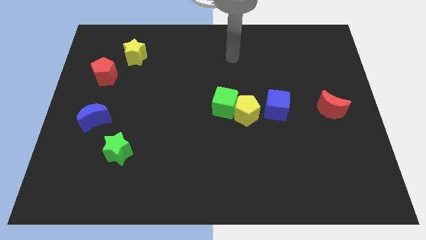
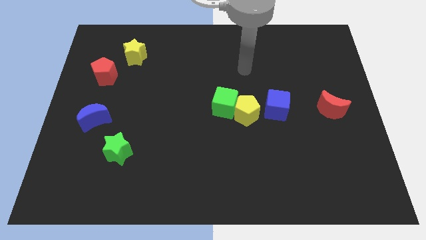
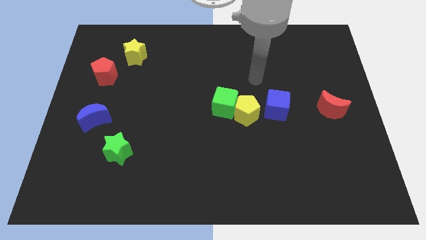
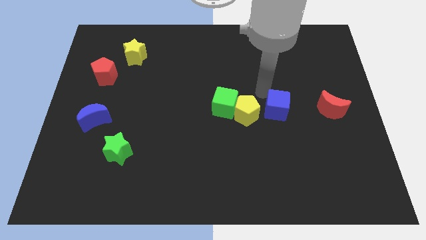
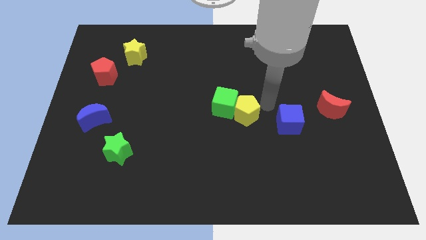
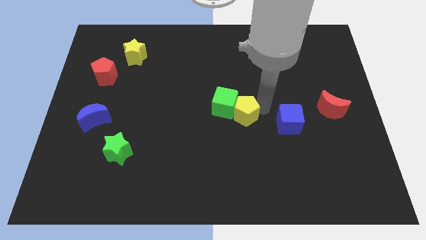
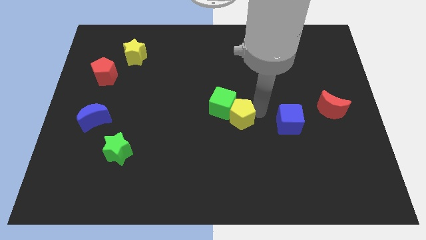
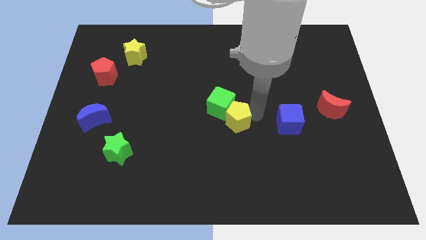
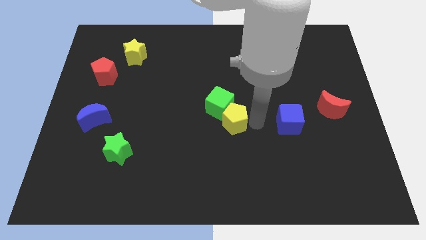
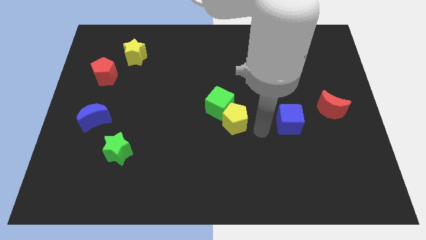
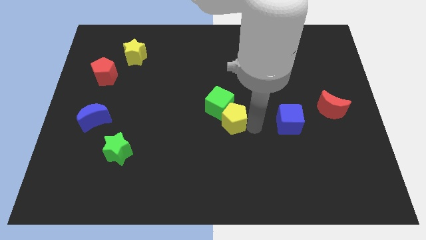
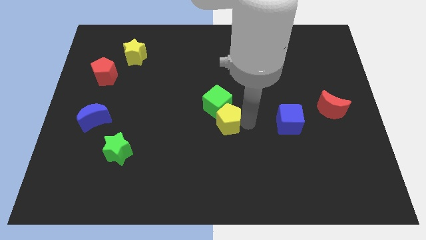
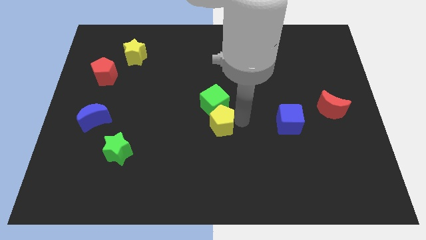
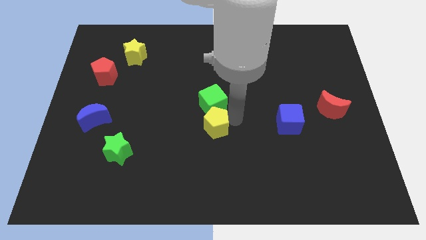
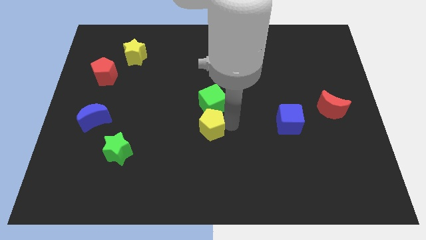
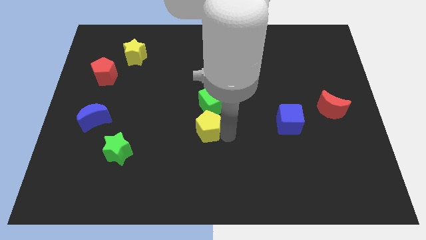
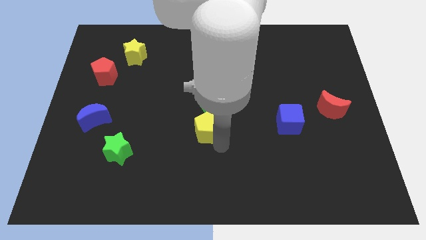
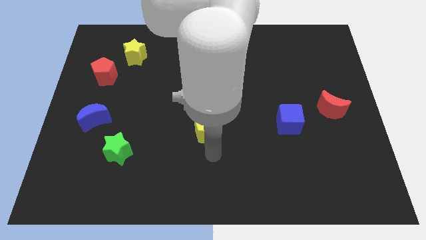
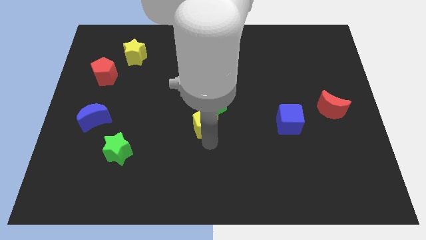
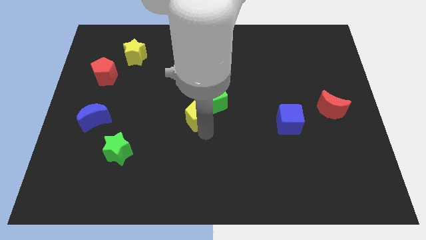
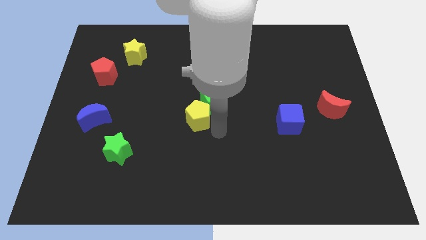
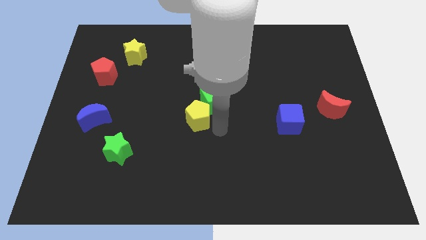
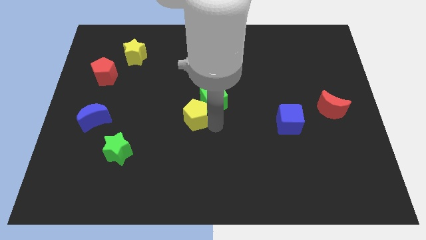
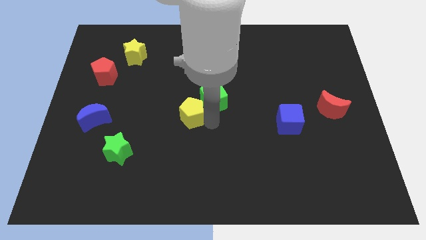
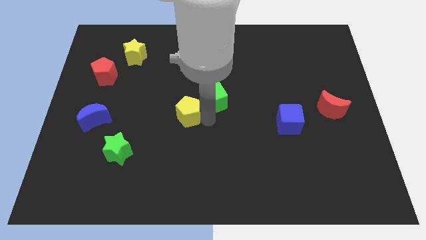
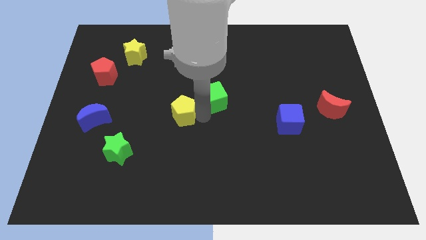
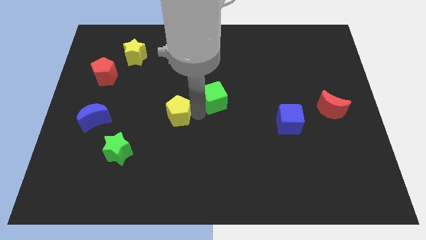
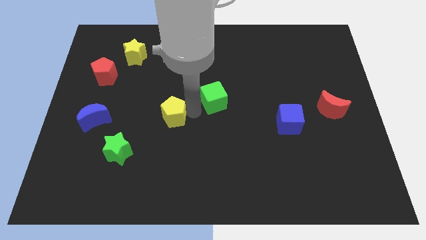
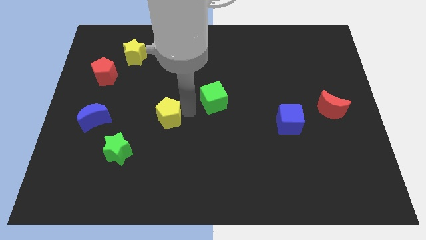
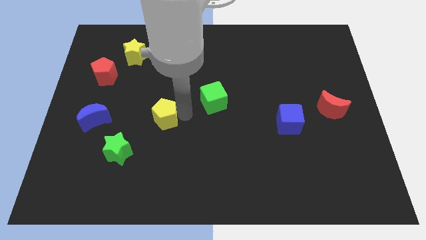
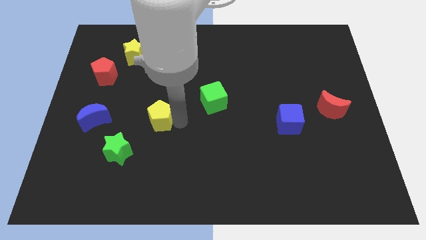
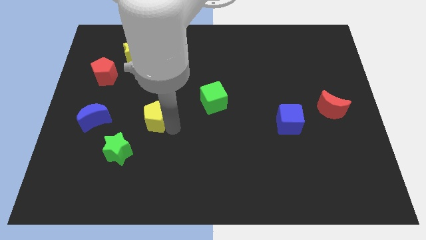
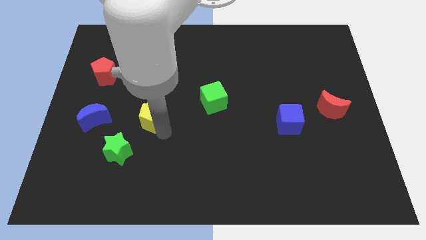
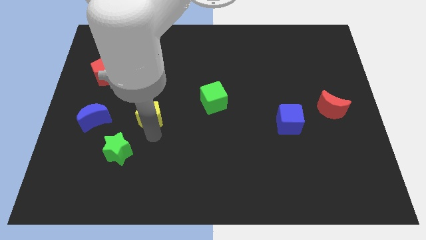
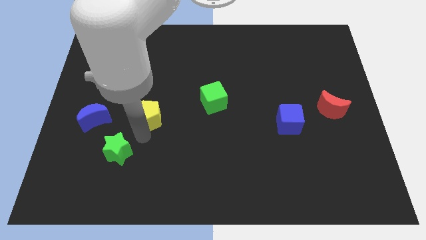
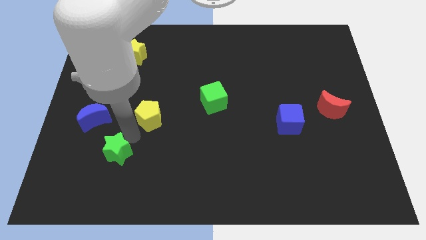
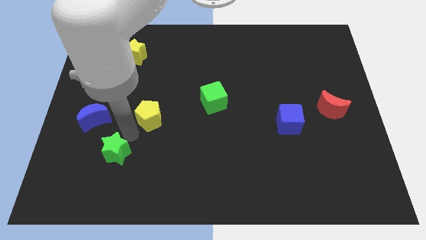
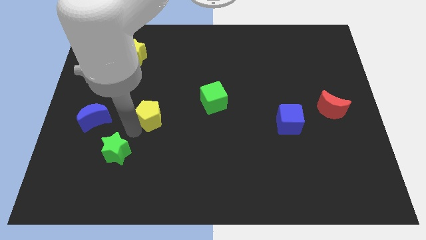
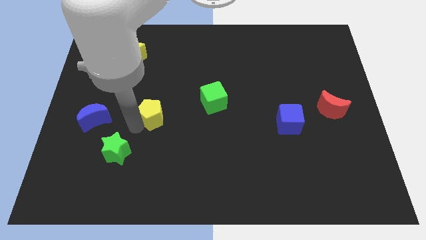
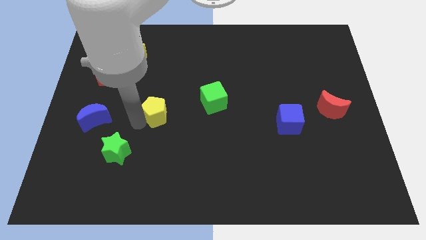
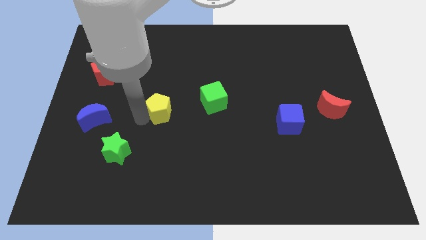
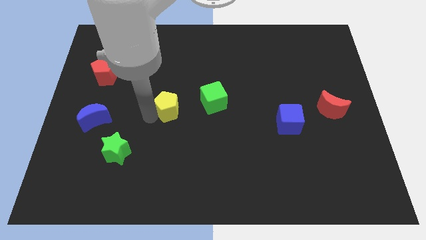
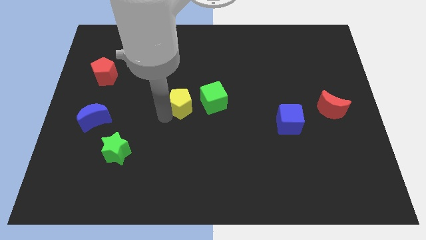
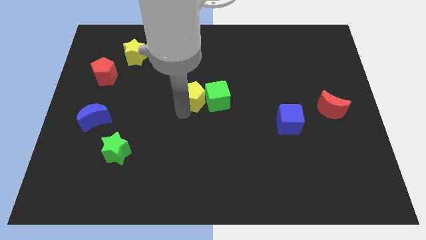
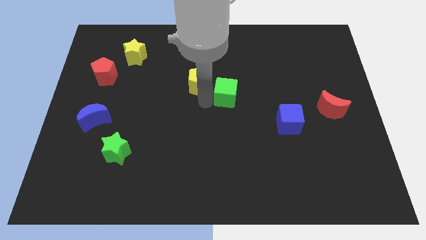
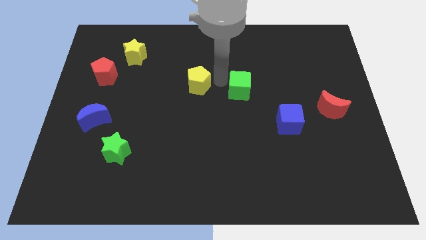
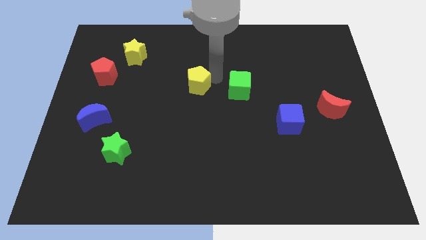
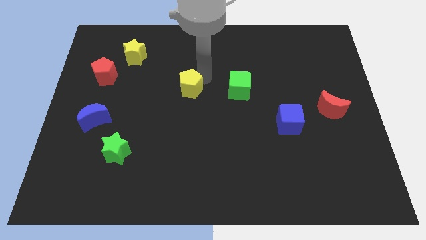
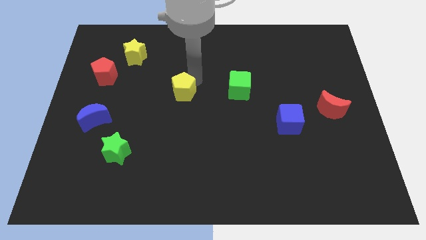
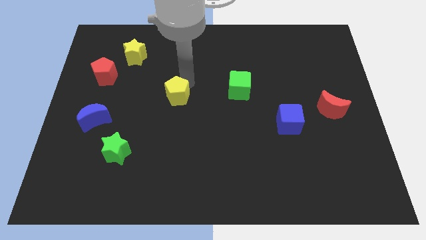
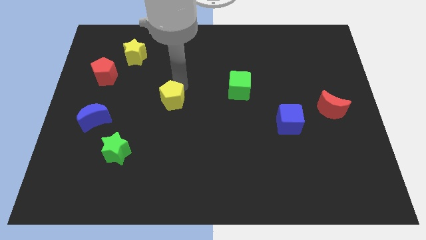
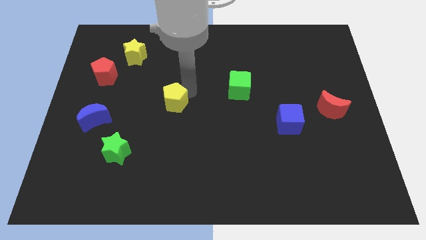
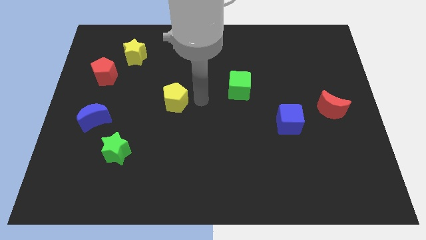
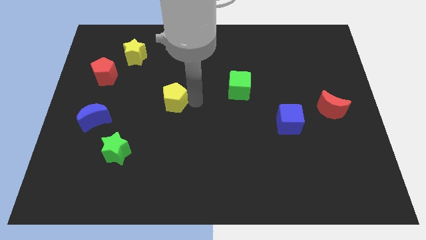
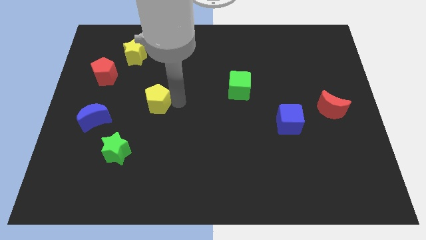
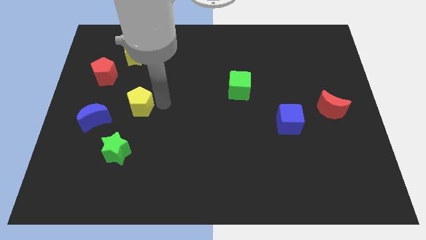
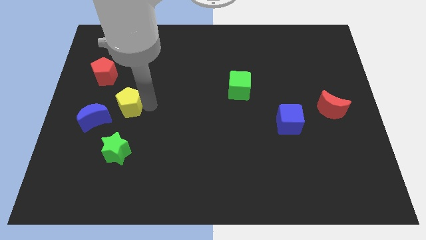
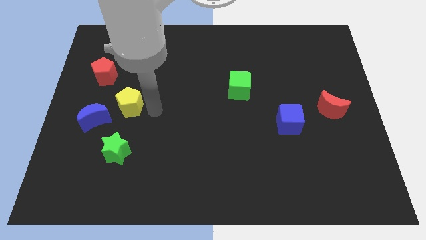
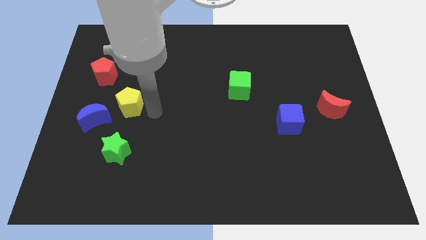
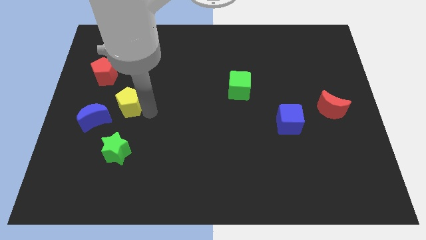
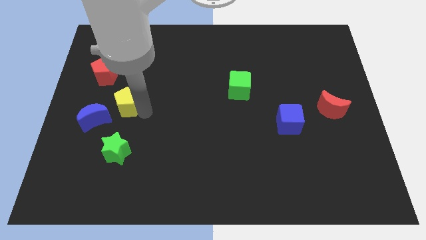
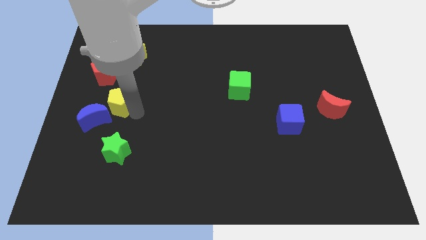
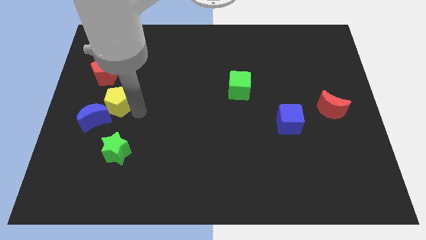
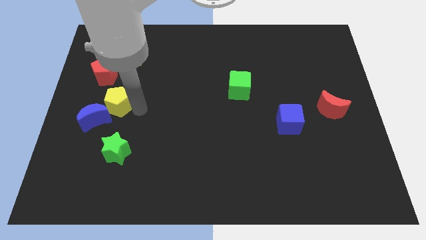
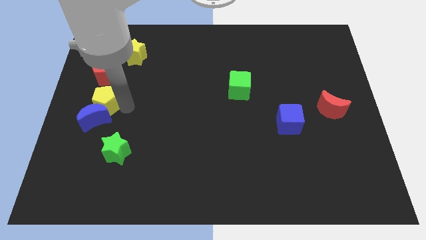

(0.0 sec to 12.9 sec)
put the yellow pentagon to the center left

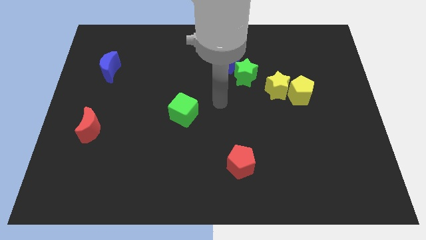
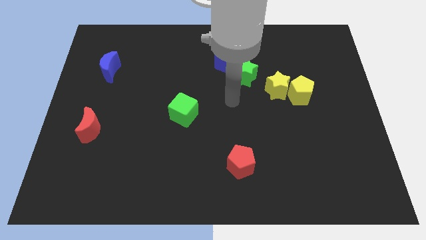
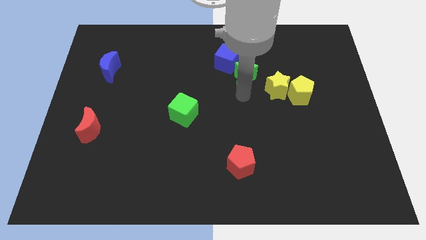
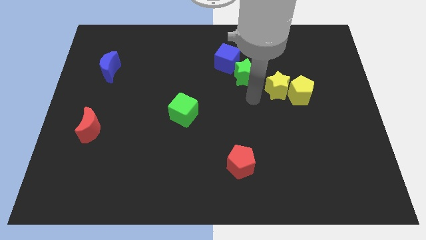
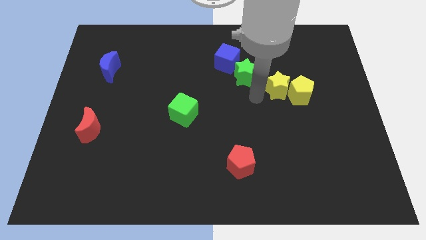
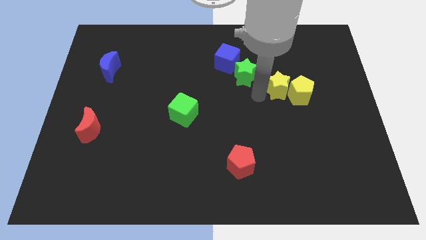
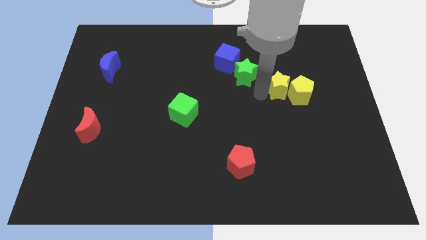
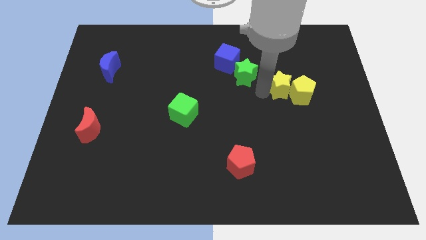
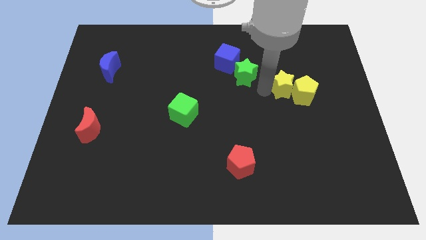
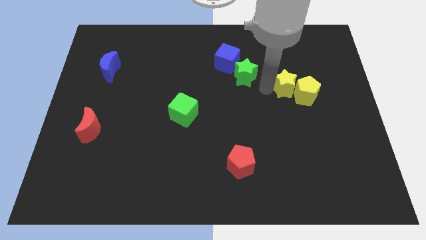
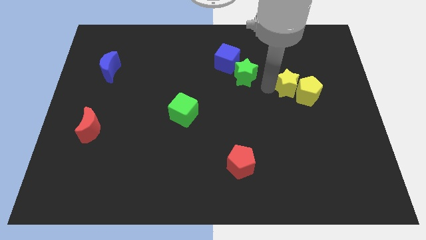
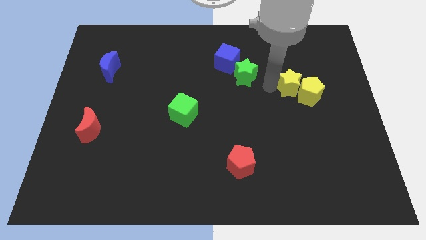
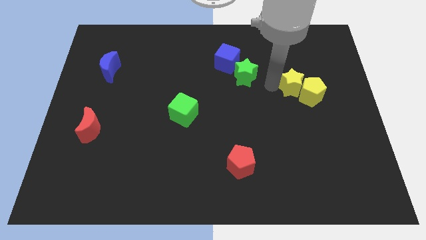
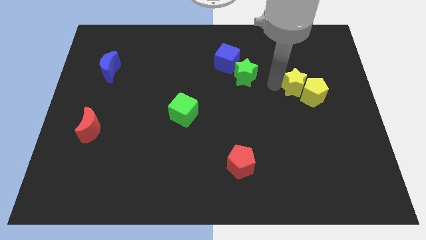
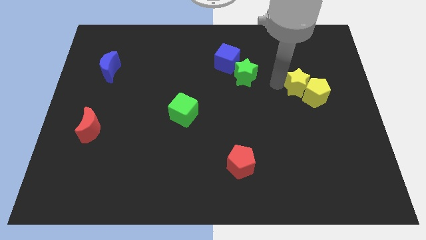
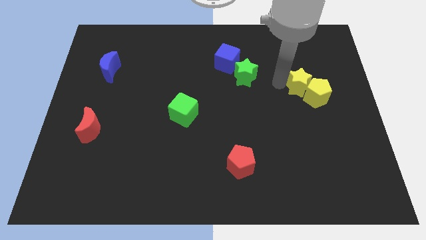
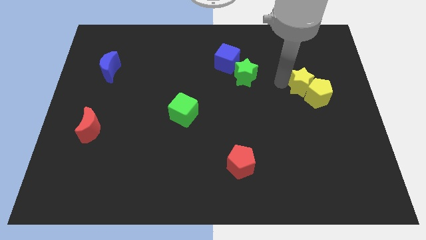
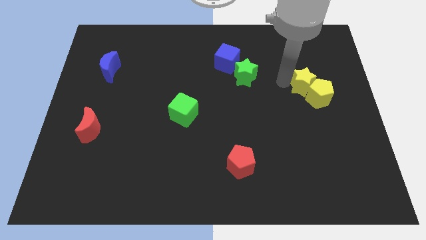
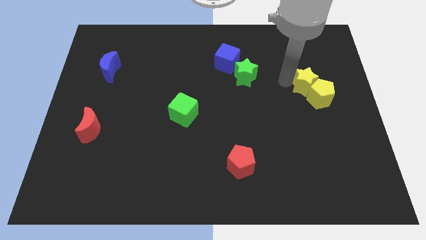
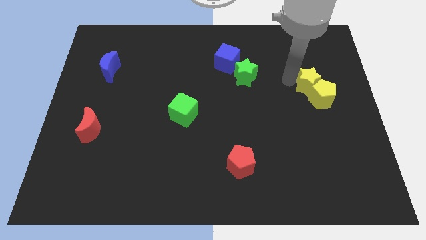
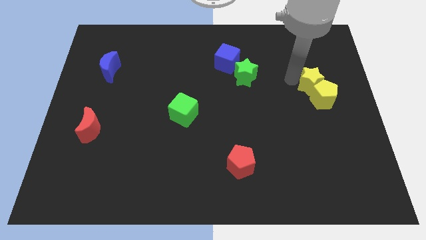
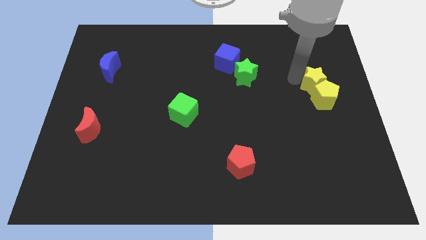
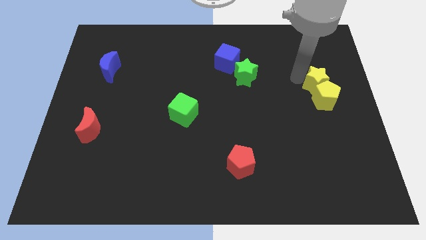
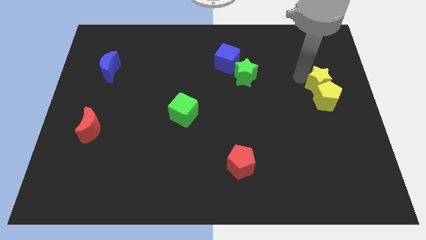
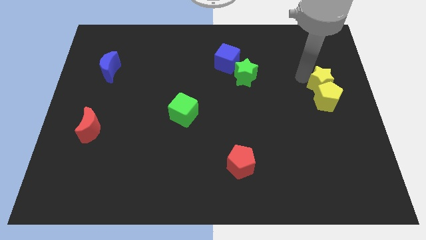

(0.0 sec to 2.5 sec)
move the yellow star to the right side of the board
